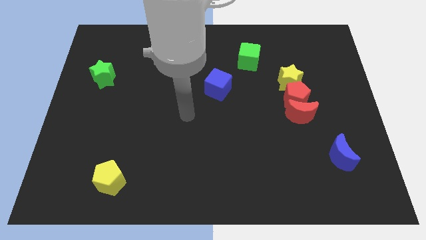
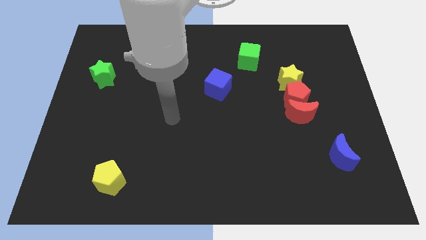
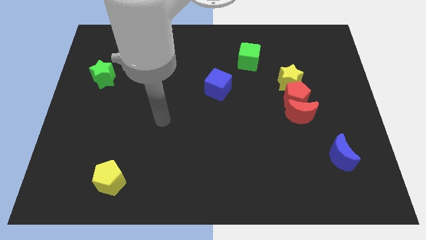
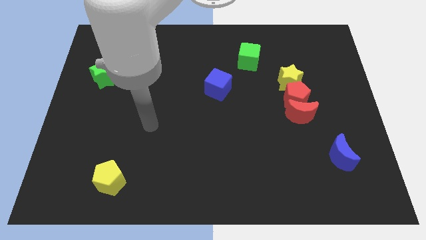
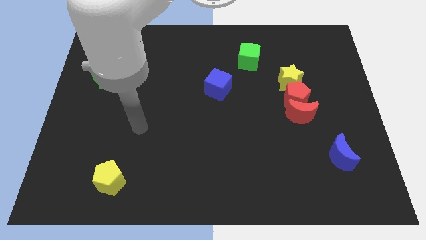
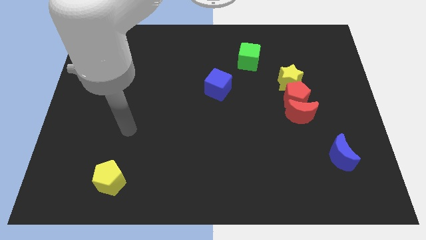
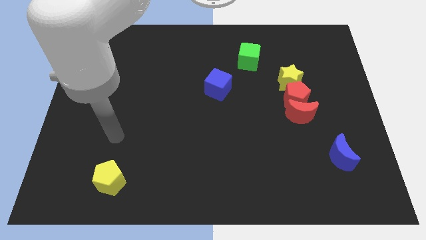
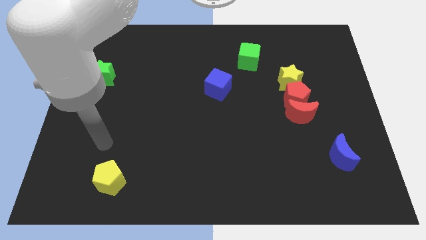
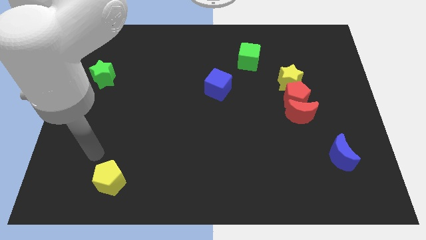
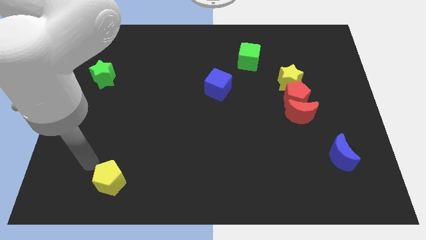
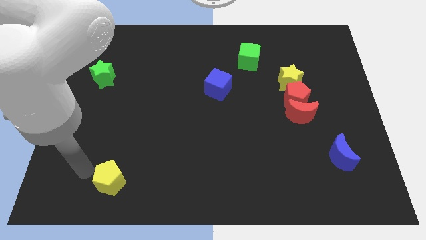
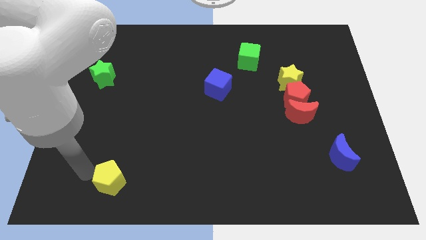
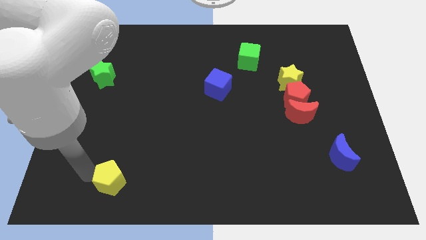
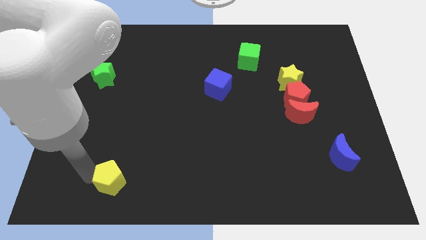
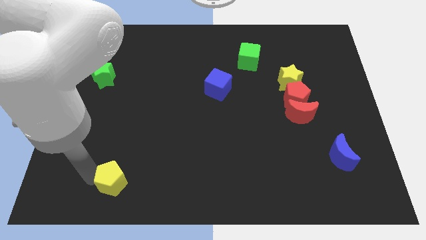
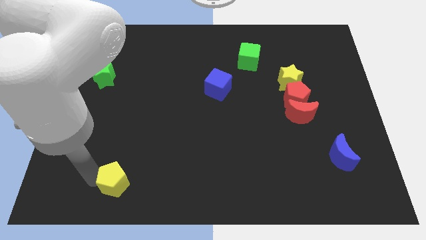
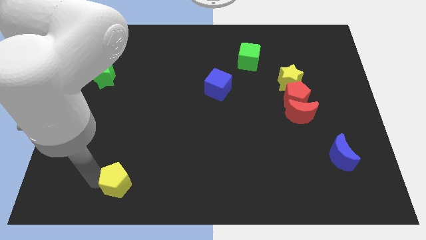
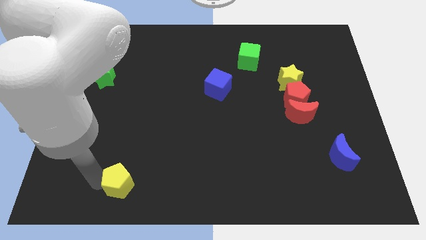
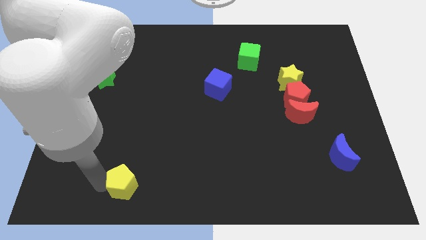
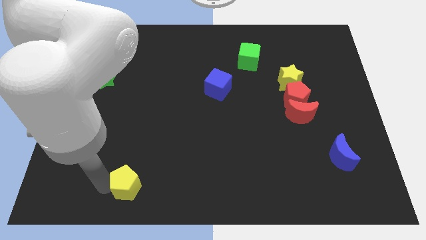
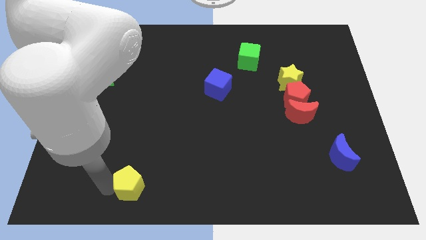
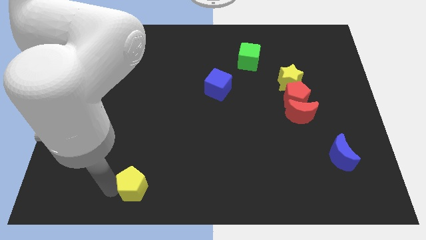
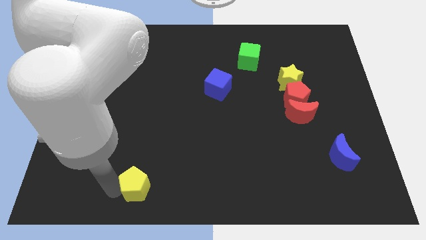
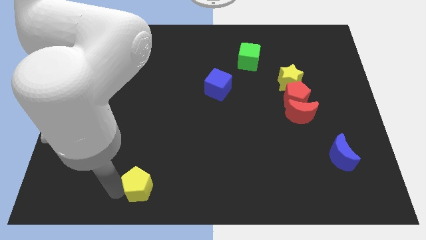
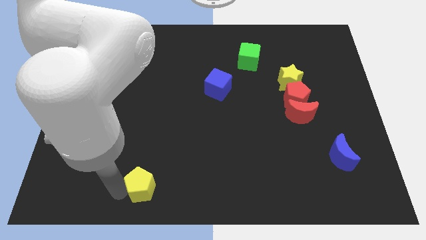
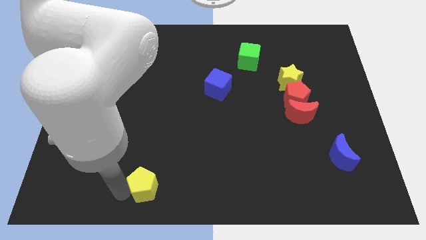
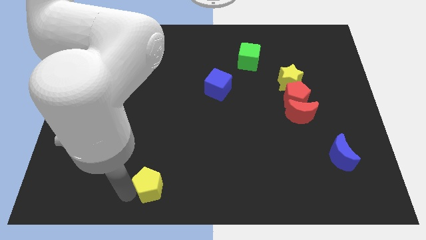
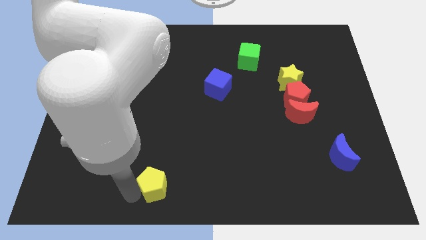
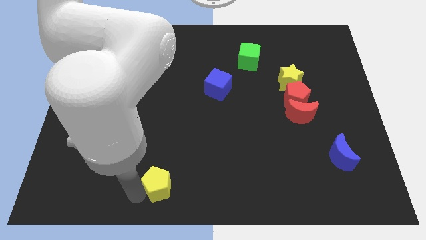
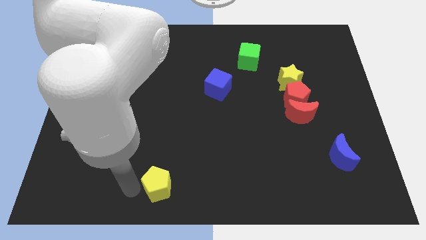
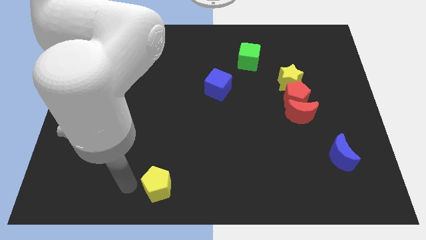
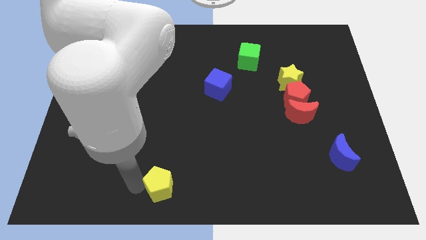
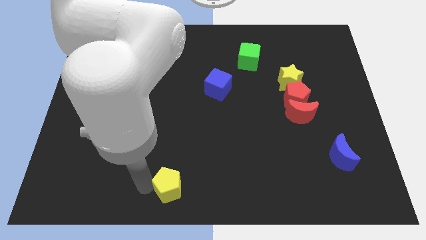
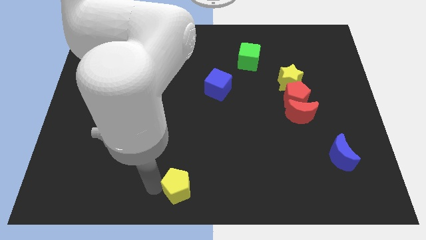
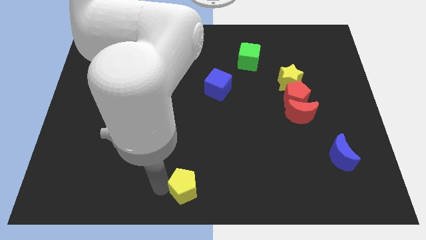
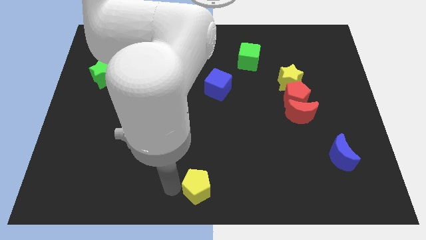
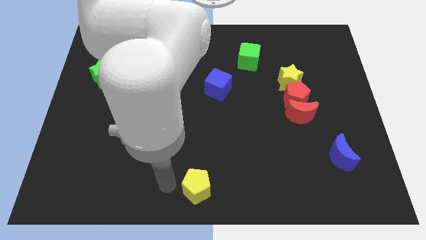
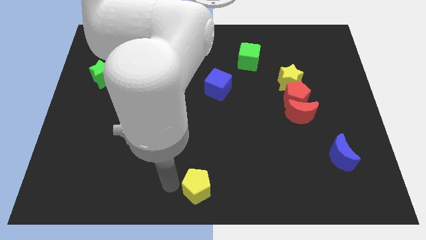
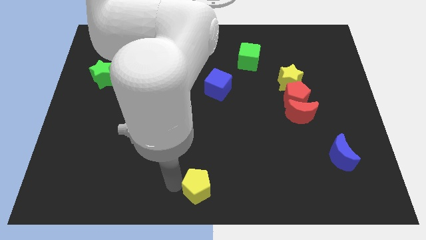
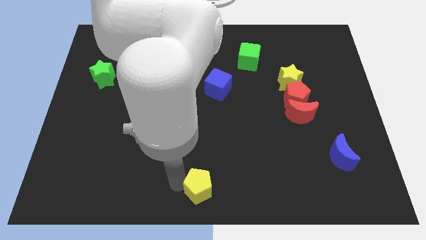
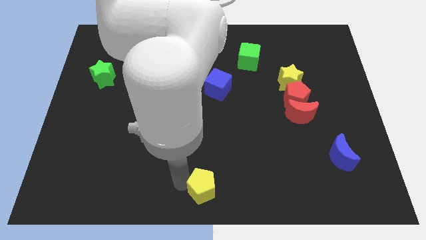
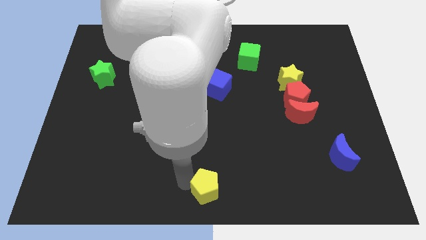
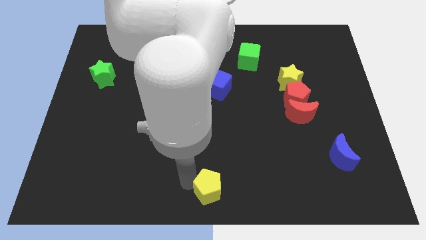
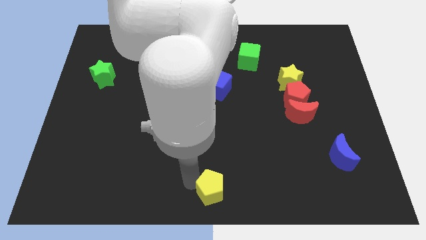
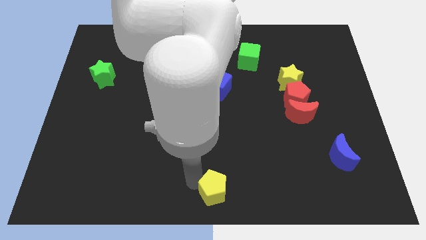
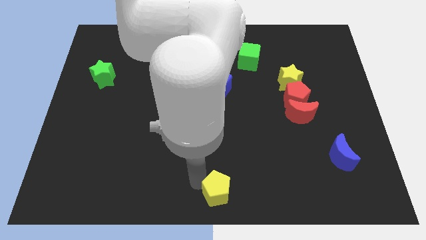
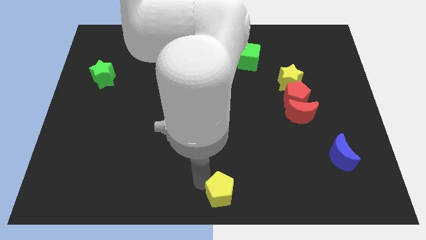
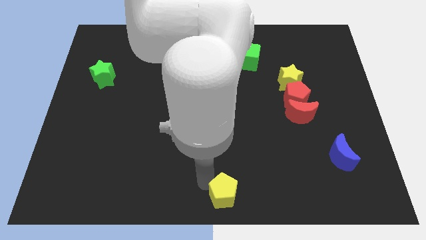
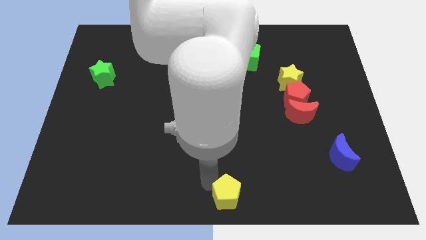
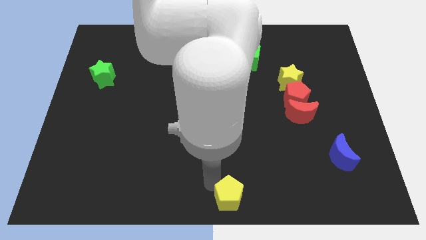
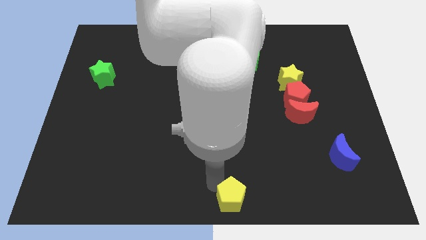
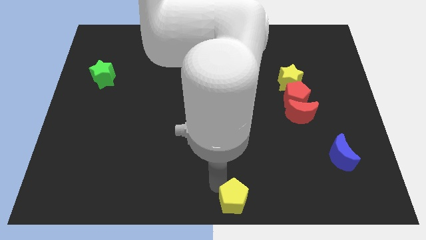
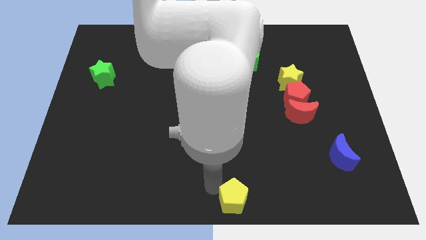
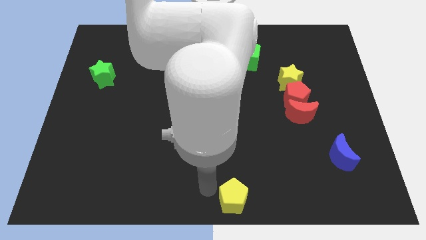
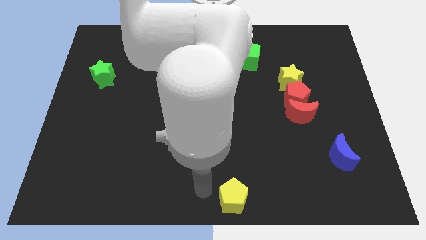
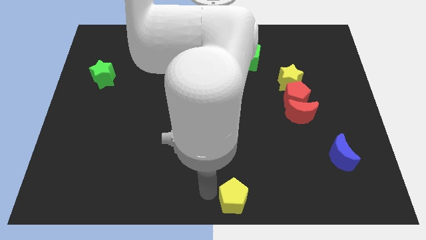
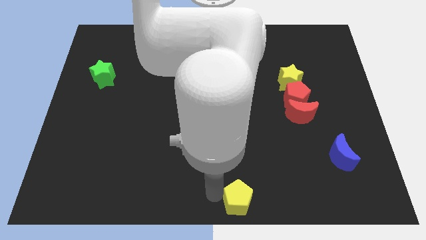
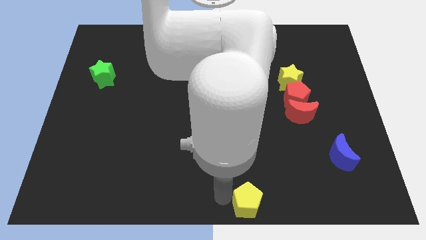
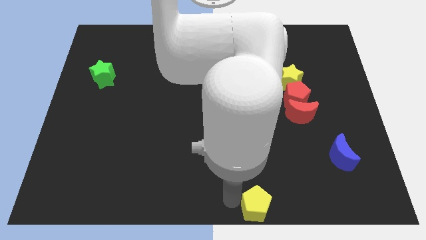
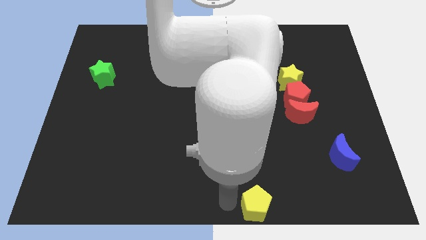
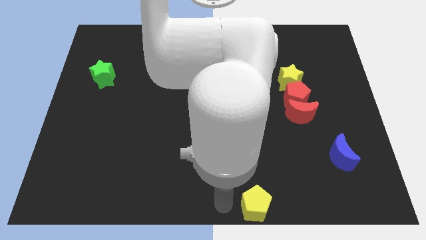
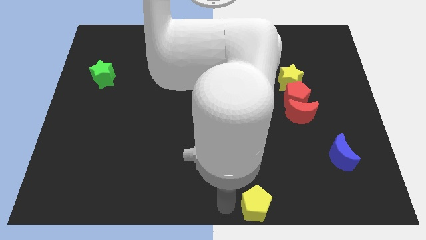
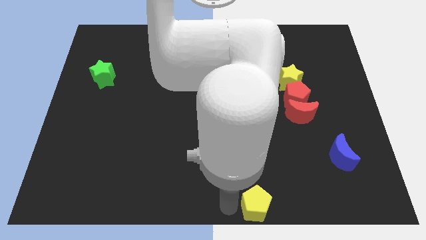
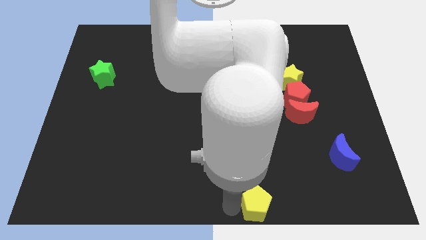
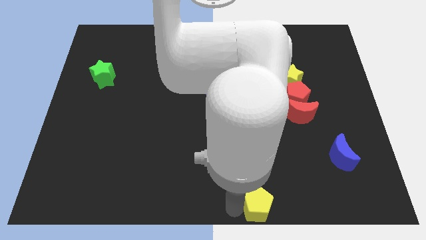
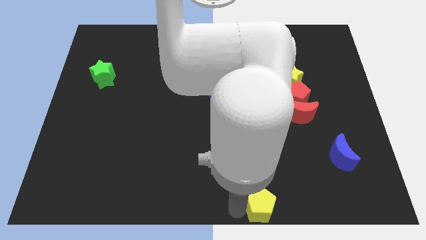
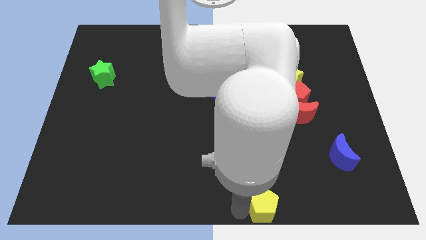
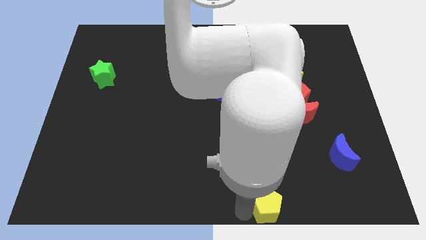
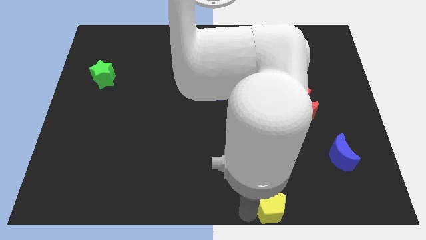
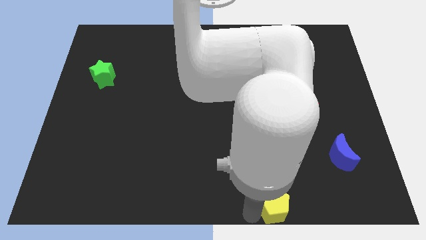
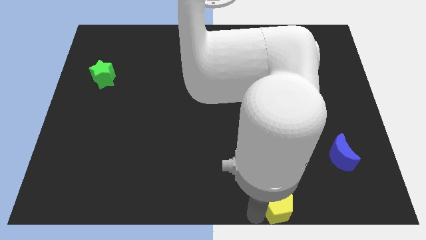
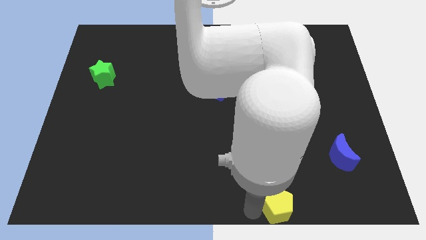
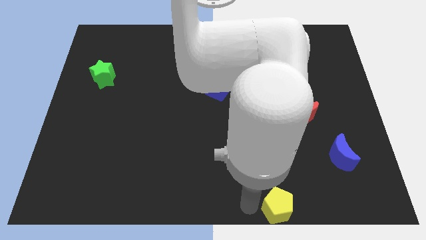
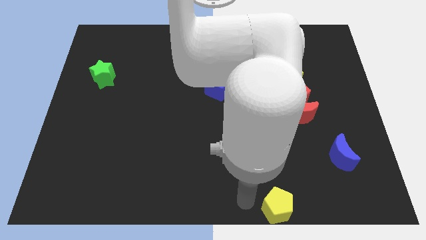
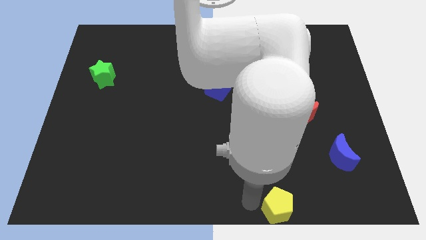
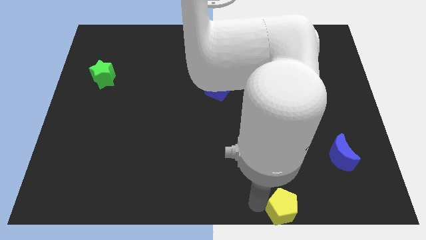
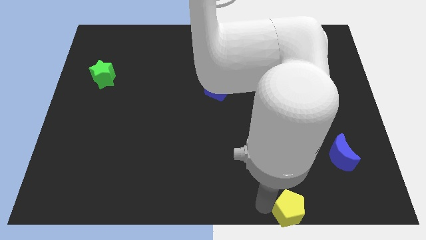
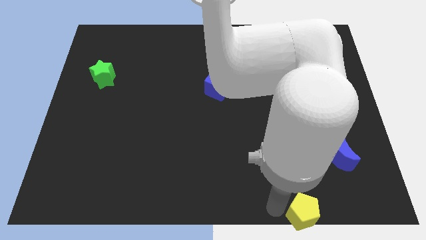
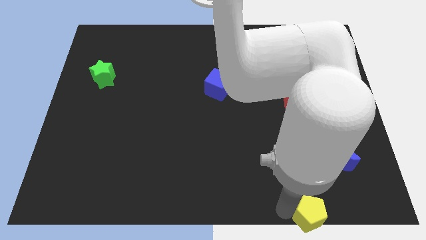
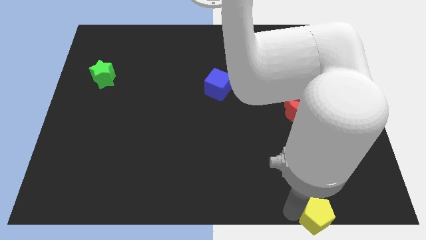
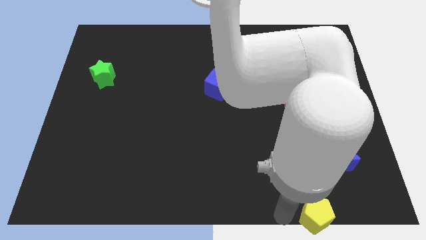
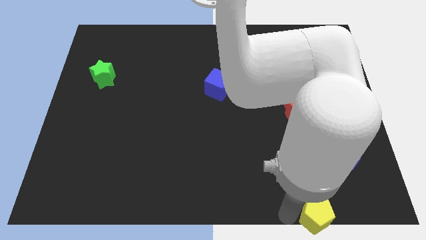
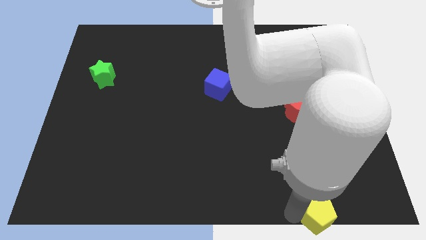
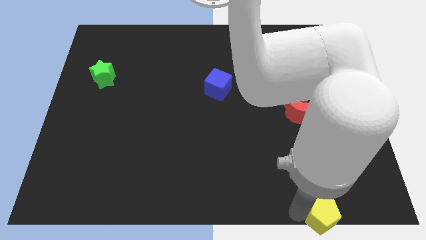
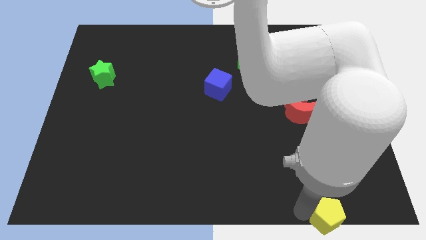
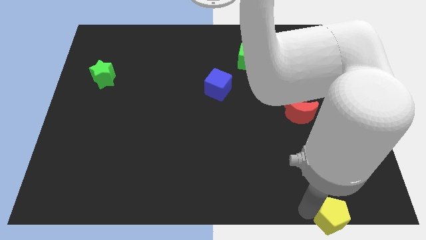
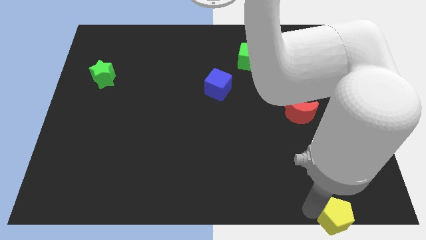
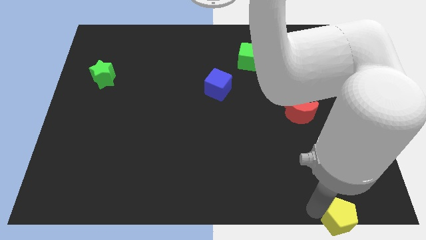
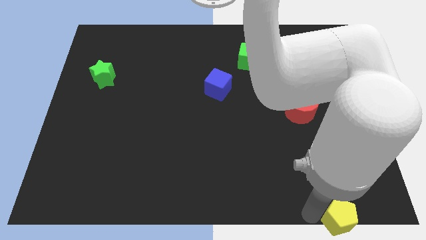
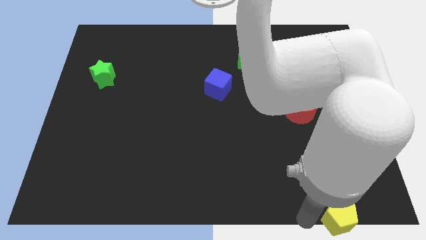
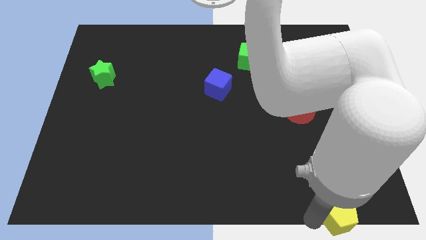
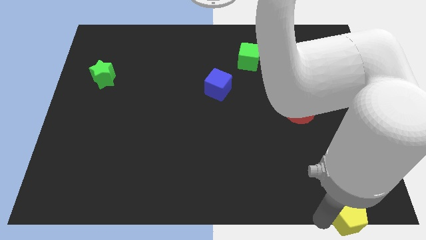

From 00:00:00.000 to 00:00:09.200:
put the yellow pentagon to the bottom right corner
